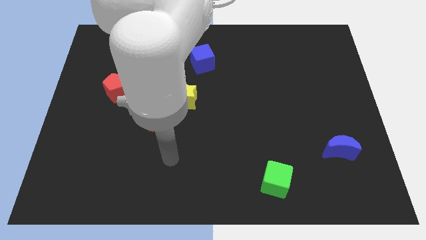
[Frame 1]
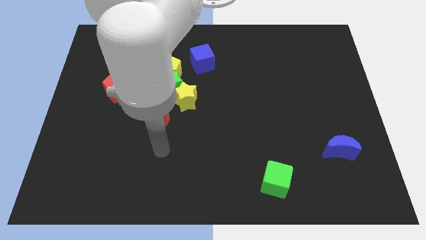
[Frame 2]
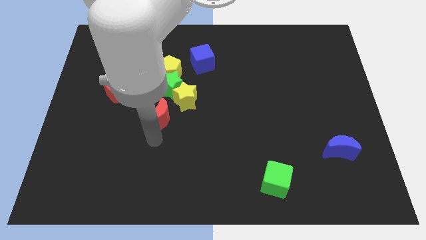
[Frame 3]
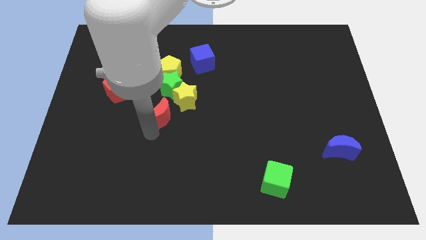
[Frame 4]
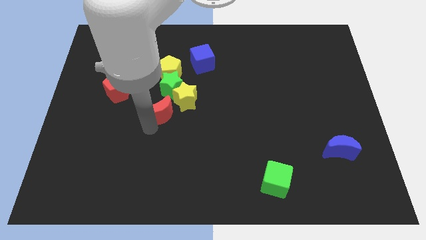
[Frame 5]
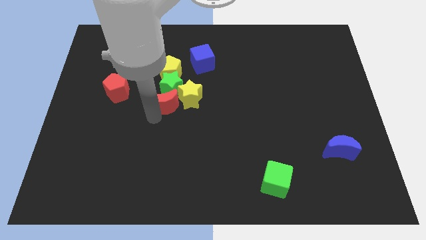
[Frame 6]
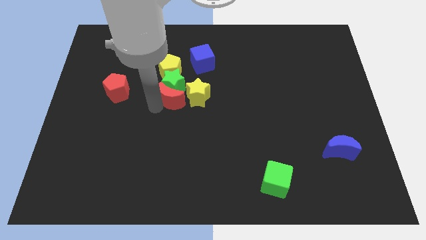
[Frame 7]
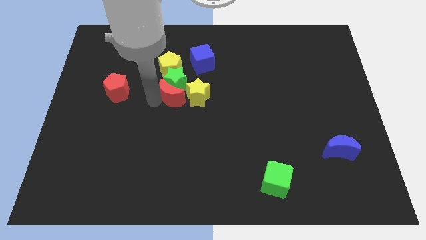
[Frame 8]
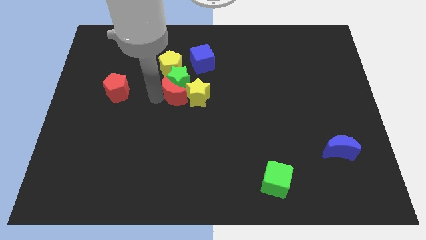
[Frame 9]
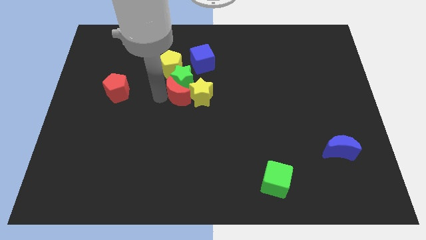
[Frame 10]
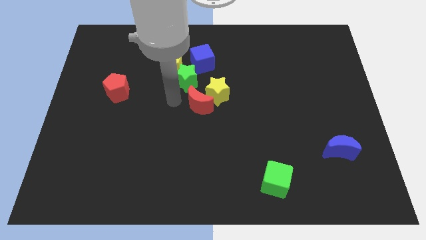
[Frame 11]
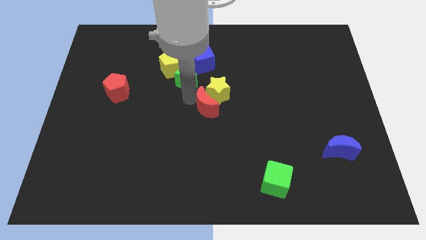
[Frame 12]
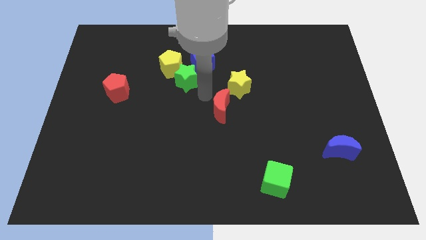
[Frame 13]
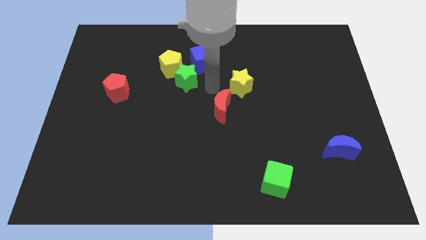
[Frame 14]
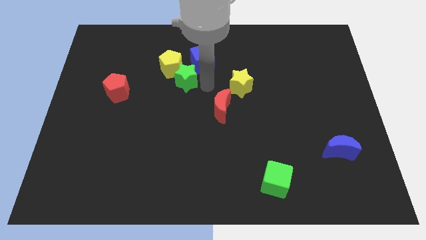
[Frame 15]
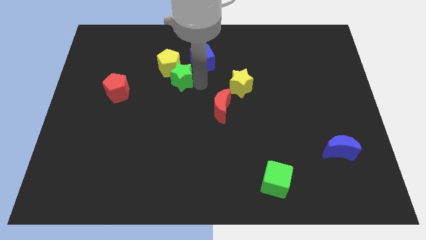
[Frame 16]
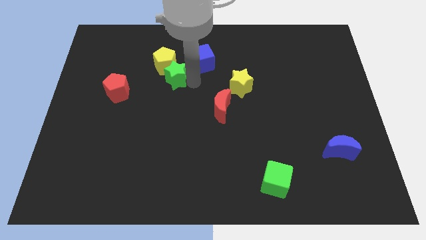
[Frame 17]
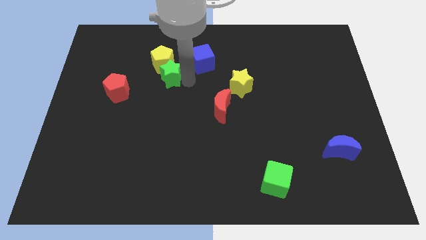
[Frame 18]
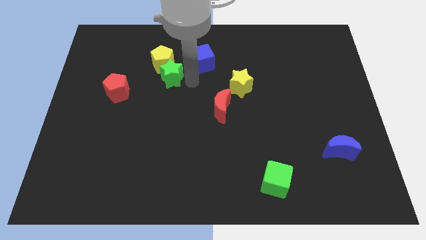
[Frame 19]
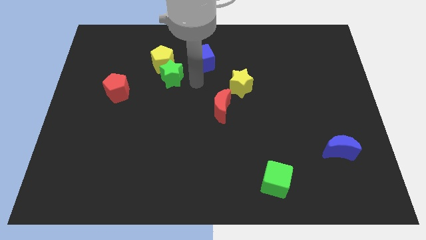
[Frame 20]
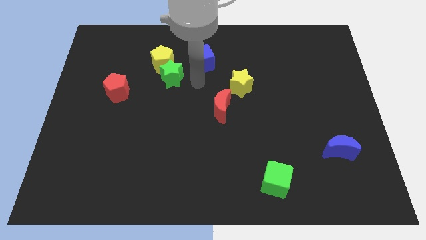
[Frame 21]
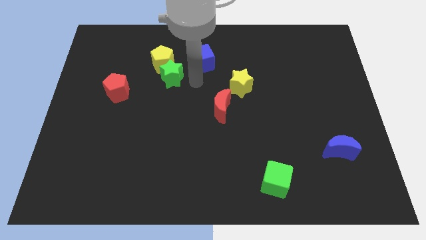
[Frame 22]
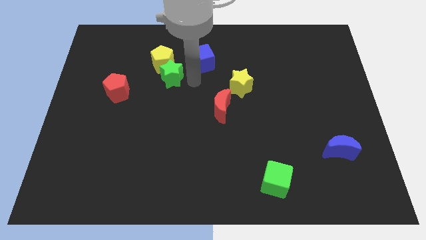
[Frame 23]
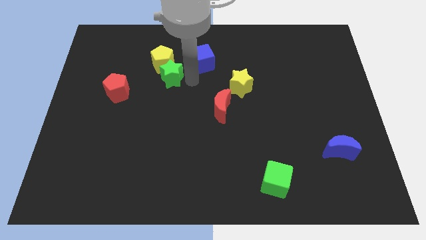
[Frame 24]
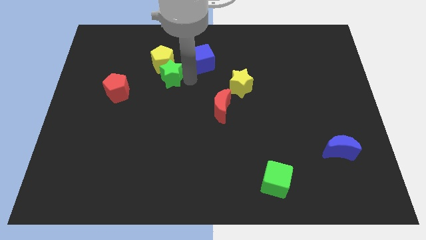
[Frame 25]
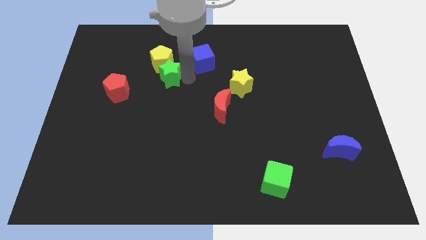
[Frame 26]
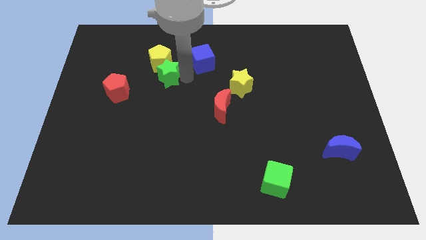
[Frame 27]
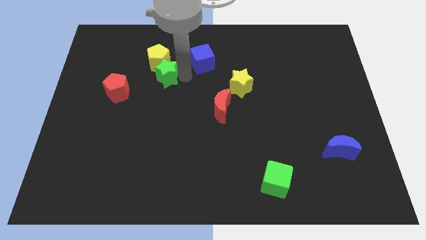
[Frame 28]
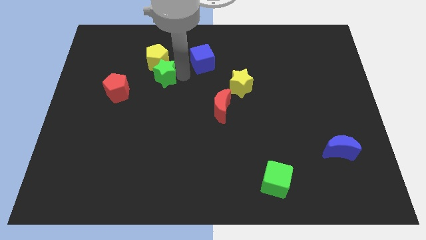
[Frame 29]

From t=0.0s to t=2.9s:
pull the green star apart from the group of blocks

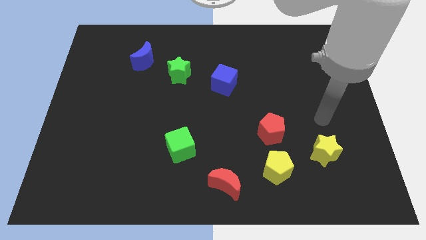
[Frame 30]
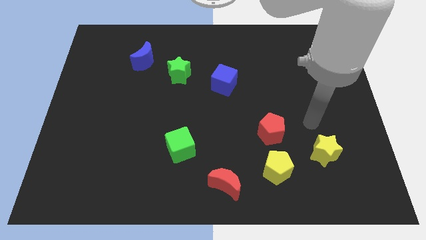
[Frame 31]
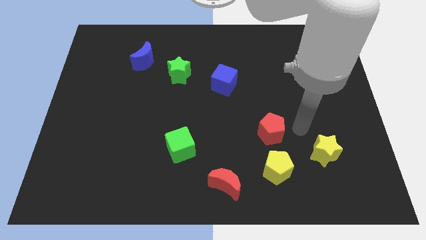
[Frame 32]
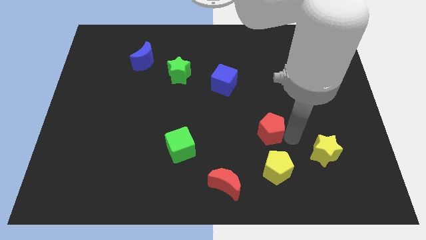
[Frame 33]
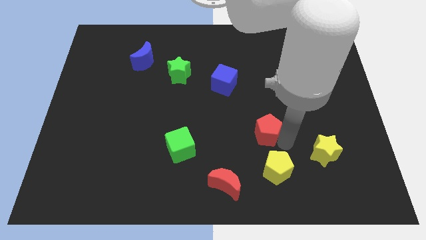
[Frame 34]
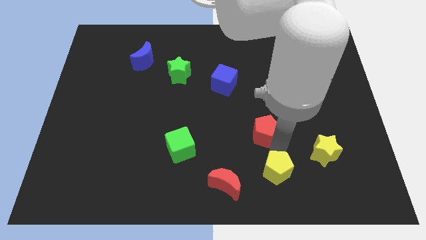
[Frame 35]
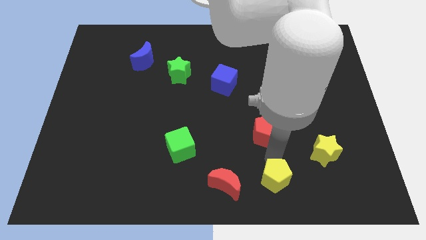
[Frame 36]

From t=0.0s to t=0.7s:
separate the red pentagon from the yellow pentagon

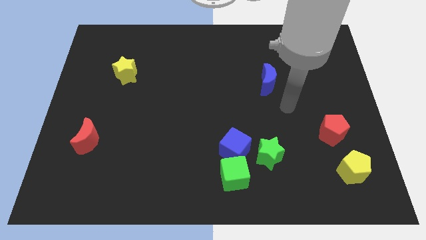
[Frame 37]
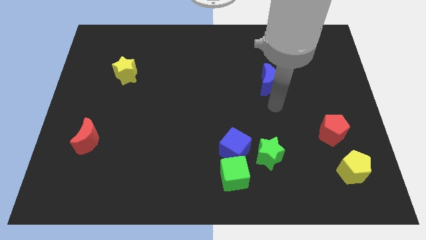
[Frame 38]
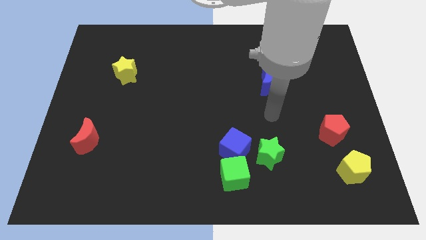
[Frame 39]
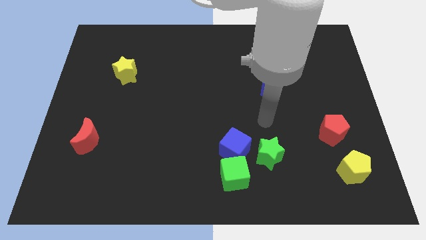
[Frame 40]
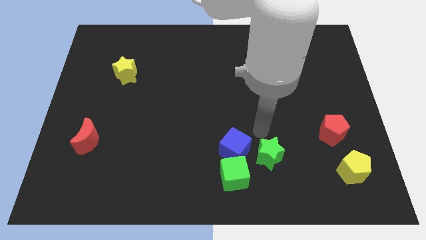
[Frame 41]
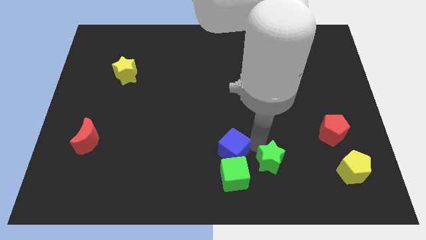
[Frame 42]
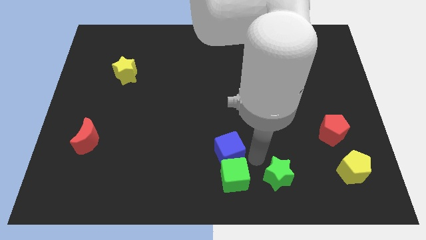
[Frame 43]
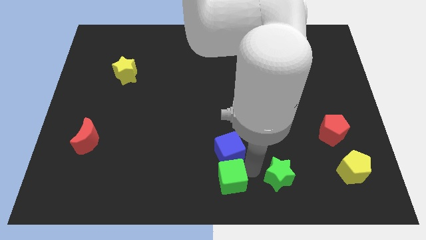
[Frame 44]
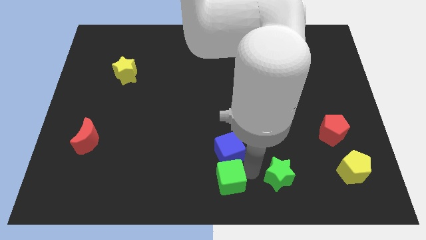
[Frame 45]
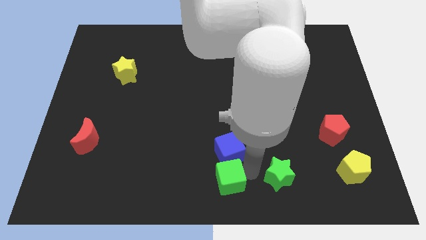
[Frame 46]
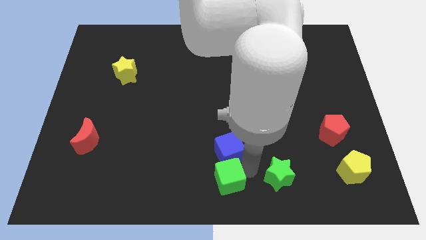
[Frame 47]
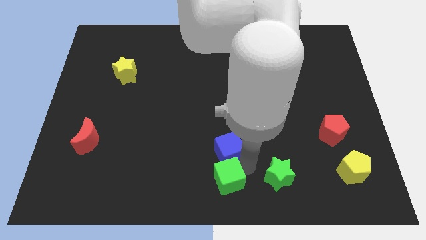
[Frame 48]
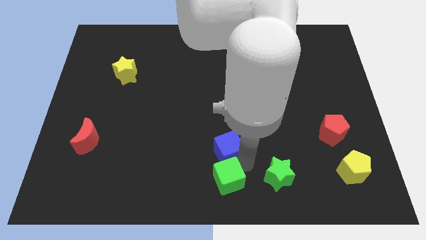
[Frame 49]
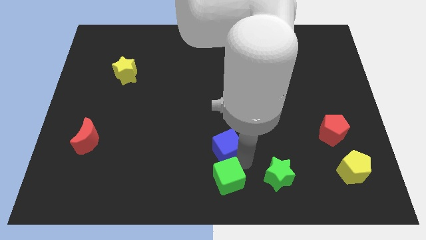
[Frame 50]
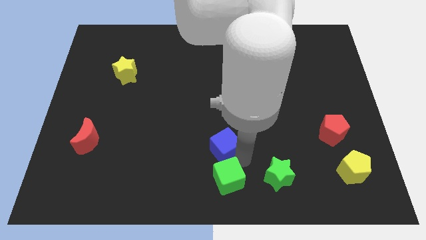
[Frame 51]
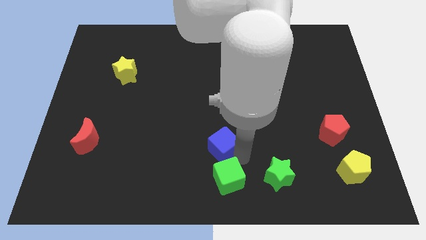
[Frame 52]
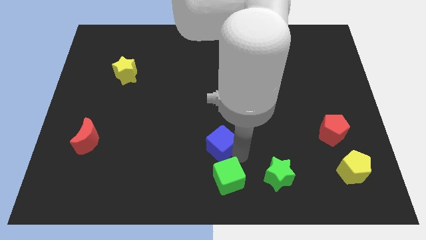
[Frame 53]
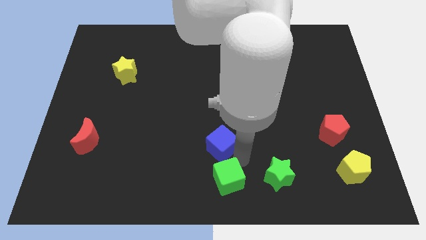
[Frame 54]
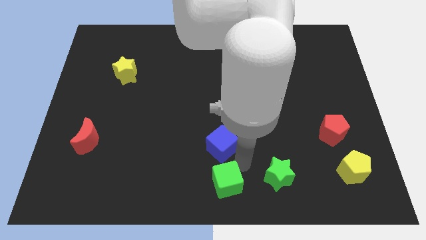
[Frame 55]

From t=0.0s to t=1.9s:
move the blue cube away from the green cube and green star

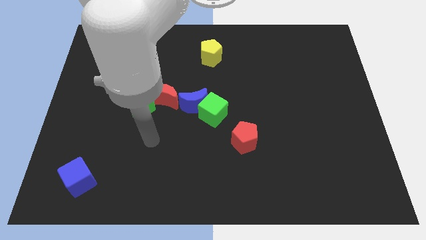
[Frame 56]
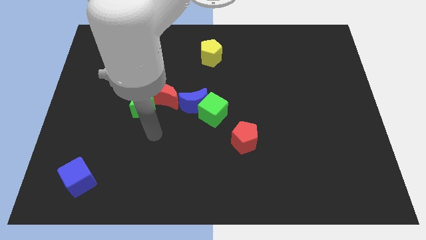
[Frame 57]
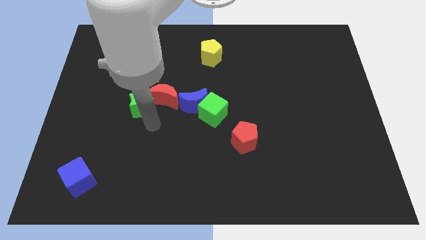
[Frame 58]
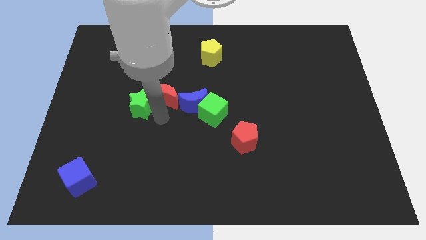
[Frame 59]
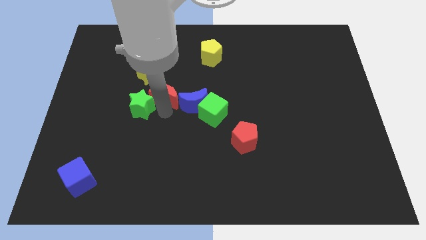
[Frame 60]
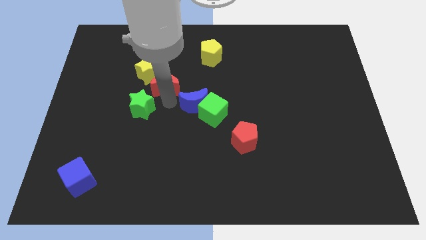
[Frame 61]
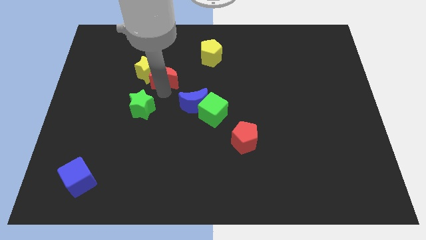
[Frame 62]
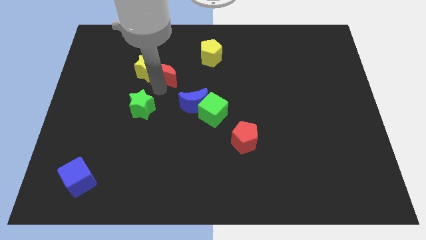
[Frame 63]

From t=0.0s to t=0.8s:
pull the green star apart from the red moon

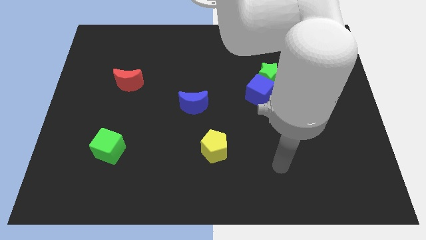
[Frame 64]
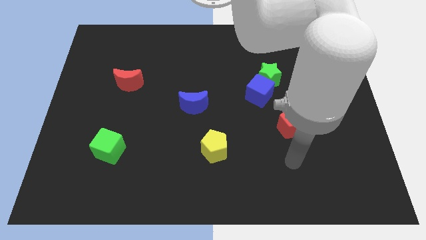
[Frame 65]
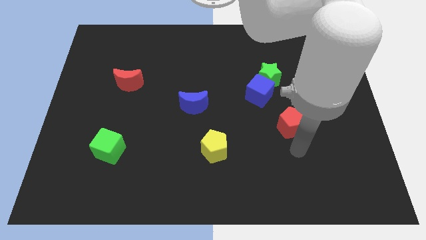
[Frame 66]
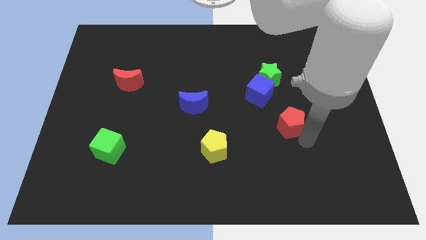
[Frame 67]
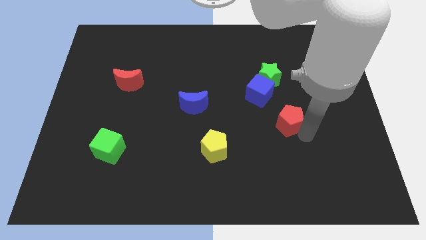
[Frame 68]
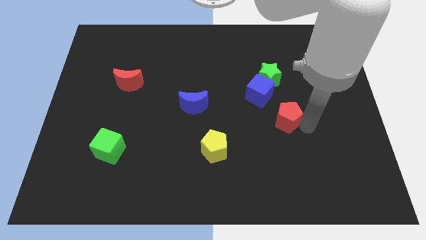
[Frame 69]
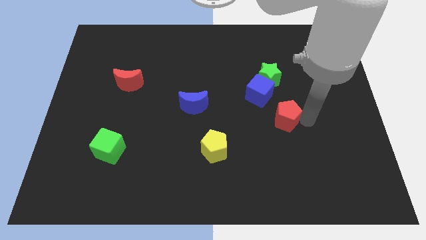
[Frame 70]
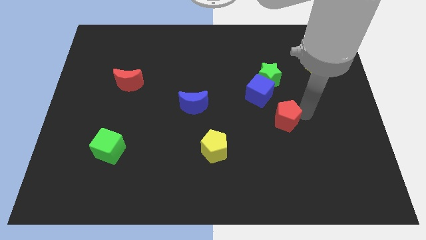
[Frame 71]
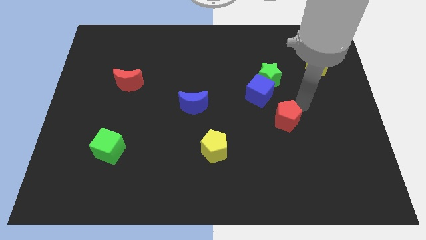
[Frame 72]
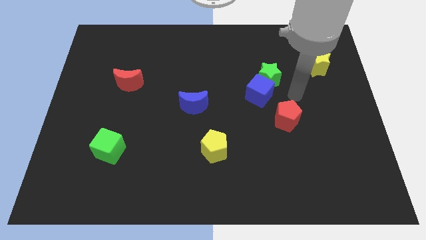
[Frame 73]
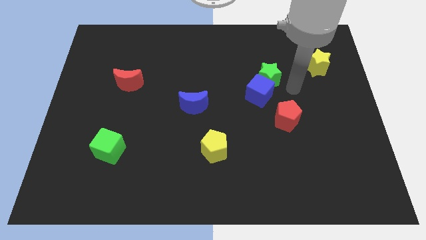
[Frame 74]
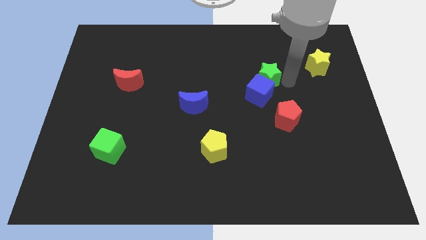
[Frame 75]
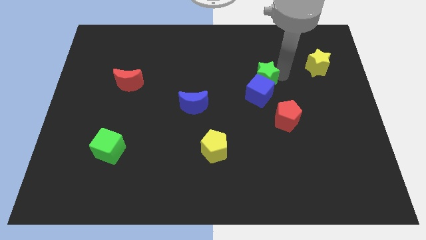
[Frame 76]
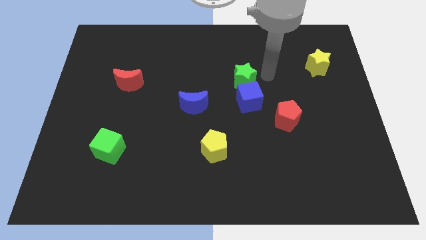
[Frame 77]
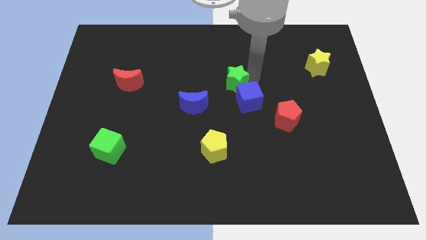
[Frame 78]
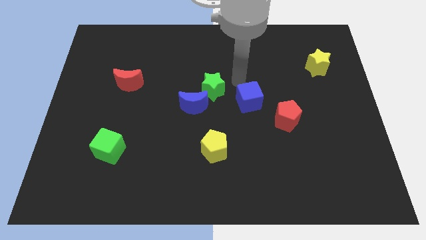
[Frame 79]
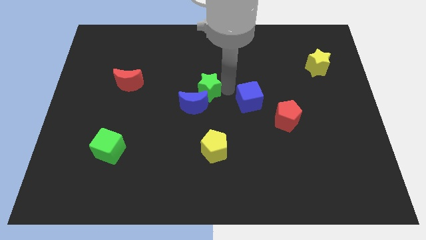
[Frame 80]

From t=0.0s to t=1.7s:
separate the blue cube from the green star

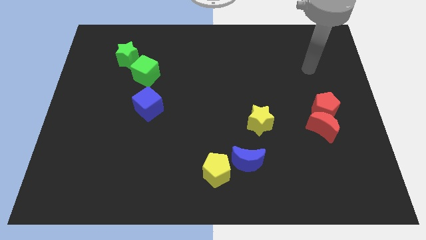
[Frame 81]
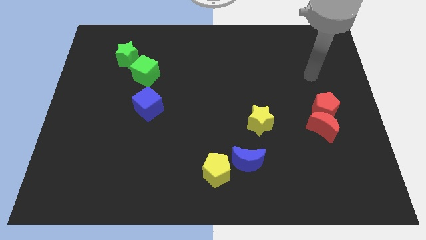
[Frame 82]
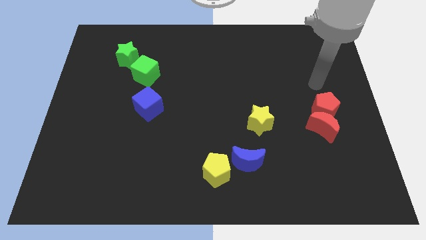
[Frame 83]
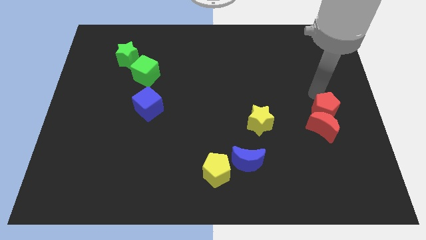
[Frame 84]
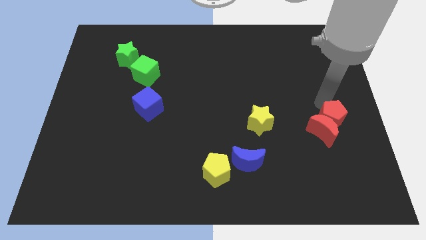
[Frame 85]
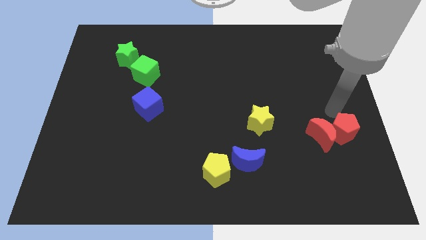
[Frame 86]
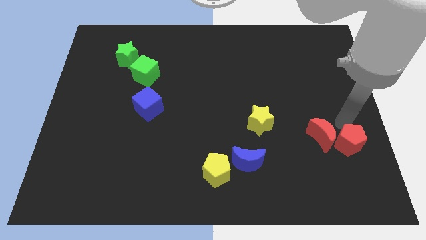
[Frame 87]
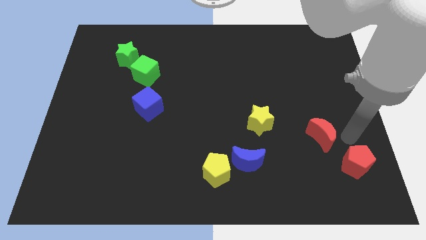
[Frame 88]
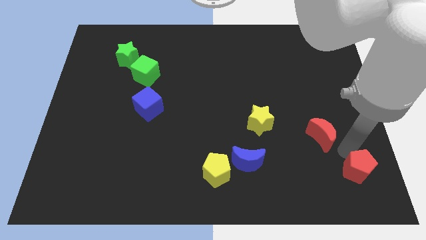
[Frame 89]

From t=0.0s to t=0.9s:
move the red moon away from the red pentagon

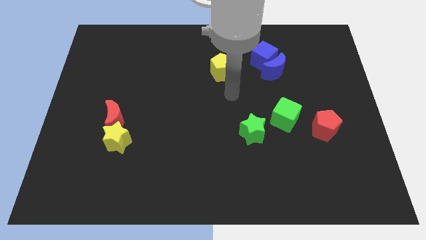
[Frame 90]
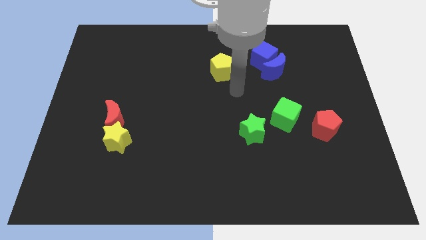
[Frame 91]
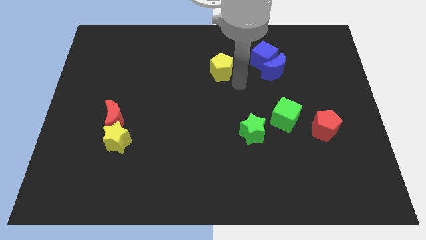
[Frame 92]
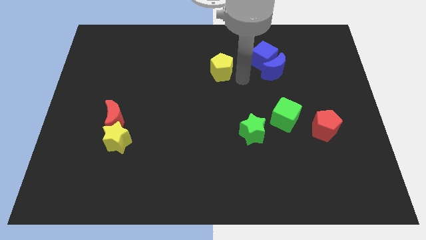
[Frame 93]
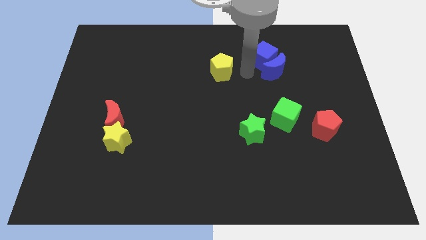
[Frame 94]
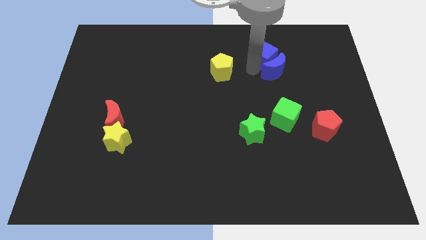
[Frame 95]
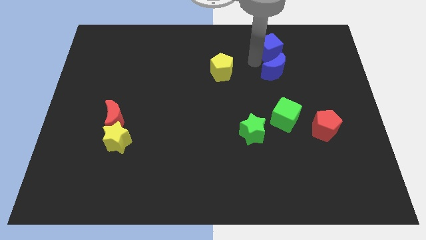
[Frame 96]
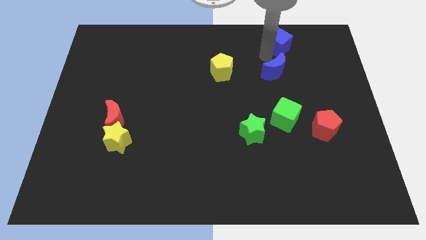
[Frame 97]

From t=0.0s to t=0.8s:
pull the blue moon apart from the blue cube
